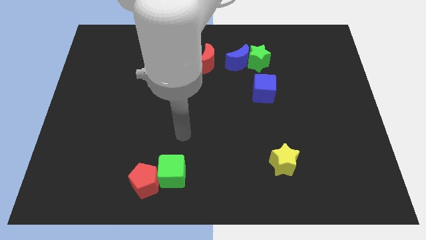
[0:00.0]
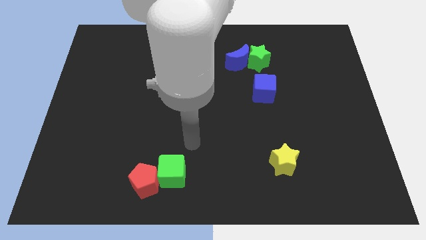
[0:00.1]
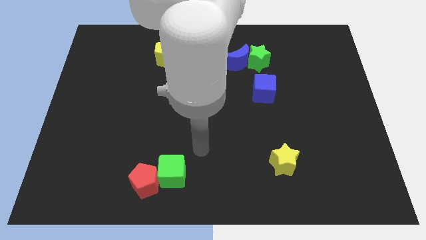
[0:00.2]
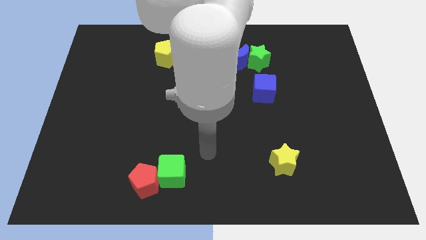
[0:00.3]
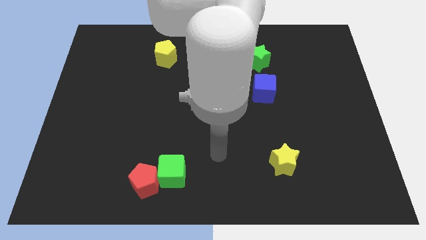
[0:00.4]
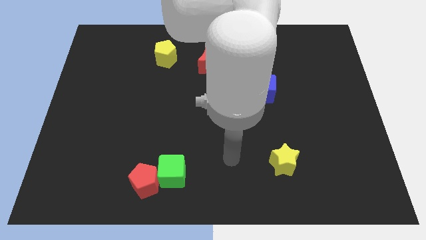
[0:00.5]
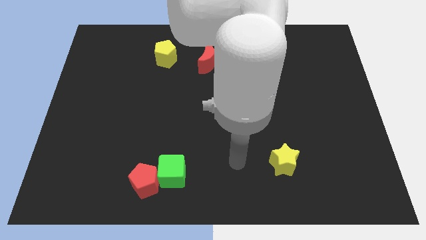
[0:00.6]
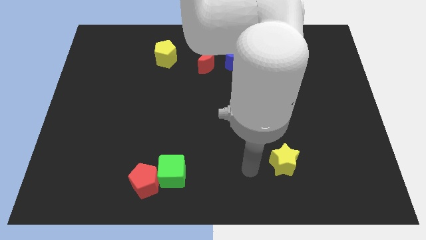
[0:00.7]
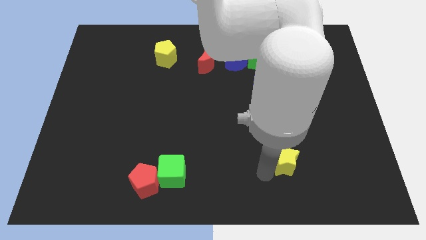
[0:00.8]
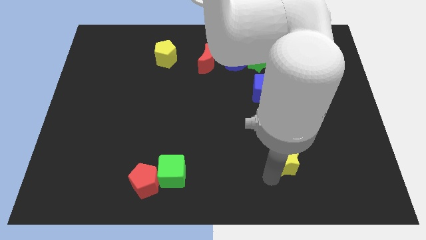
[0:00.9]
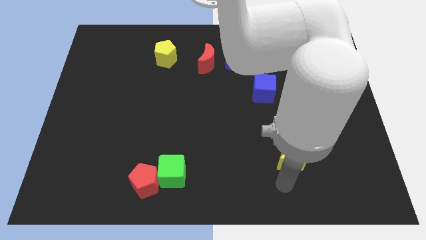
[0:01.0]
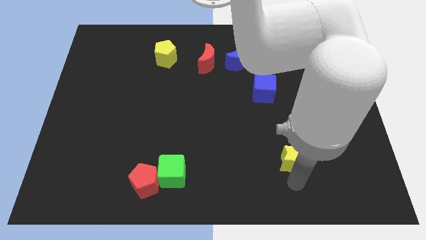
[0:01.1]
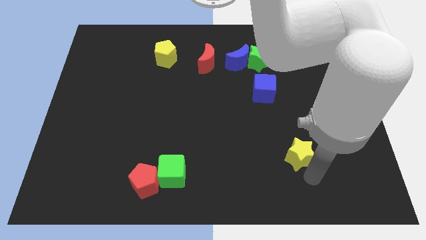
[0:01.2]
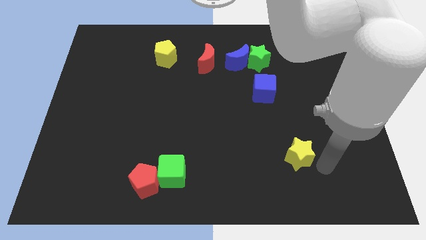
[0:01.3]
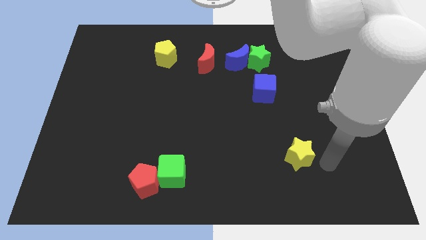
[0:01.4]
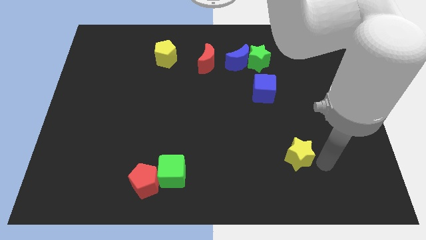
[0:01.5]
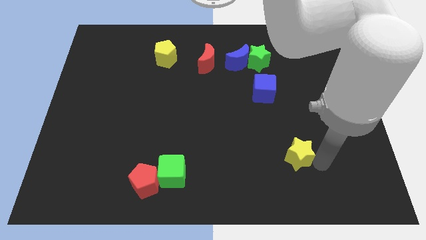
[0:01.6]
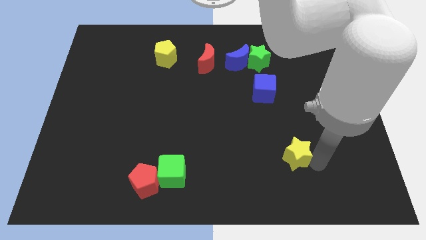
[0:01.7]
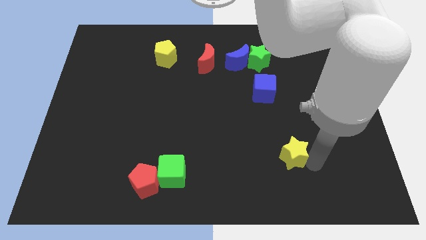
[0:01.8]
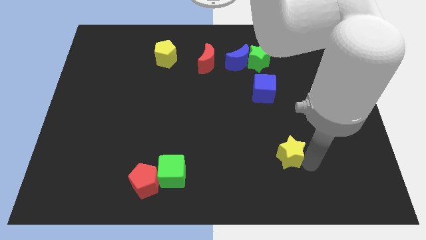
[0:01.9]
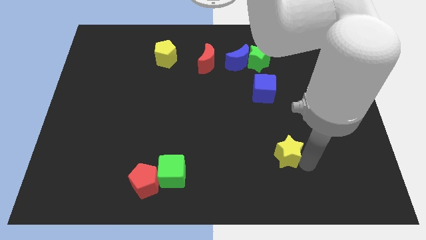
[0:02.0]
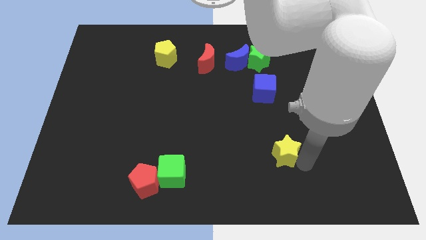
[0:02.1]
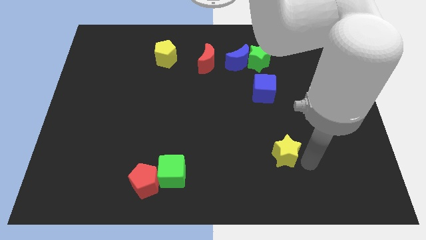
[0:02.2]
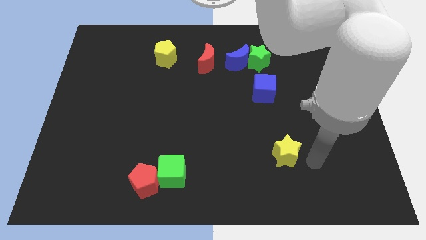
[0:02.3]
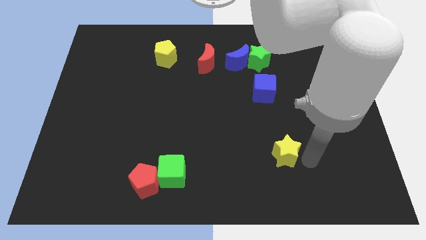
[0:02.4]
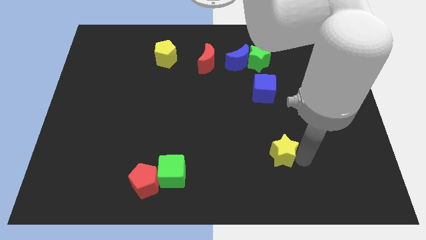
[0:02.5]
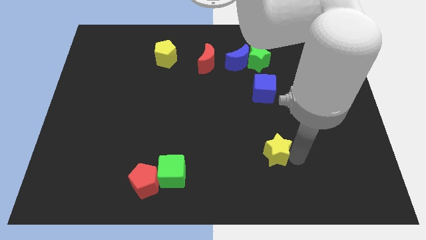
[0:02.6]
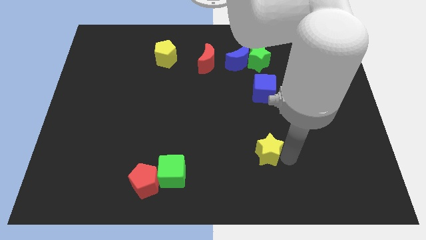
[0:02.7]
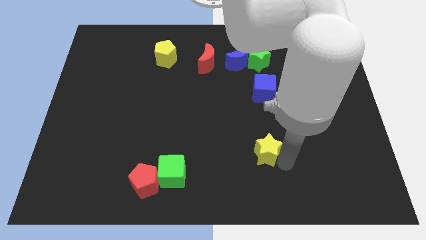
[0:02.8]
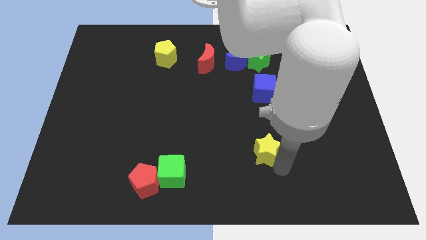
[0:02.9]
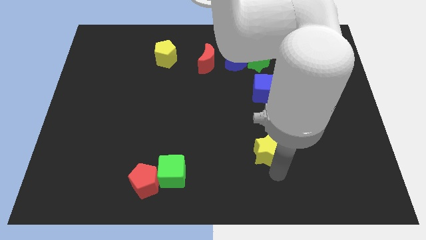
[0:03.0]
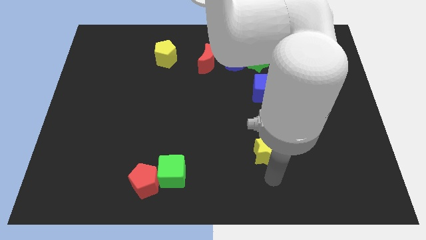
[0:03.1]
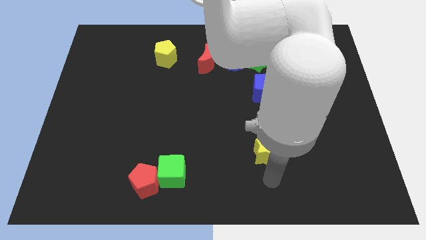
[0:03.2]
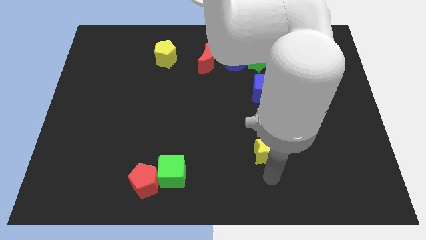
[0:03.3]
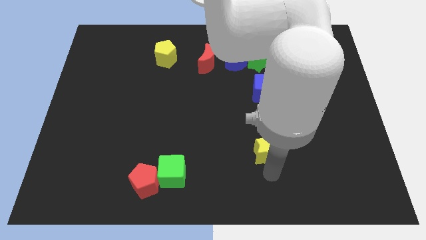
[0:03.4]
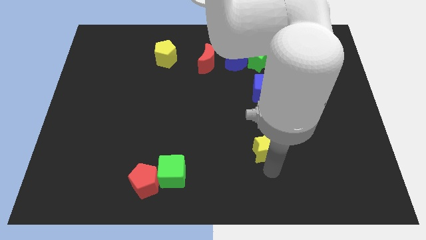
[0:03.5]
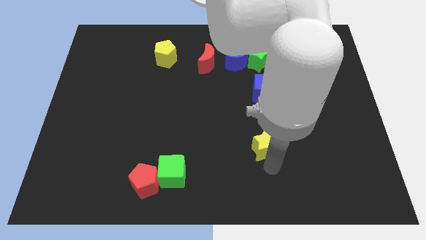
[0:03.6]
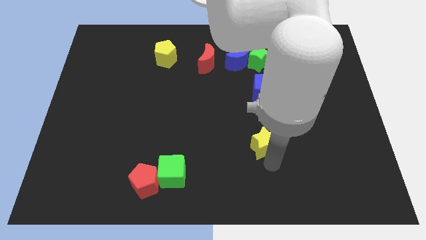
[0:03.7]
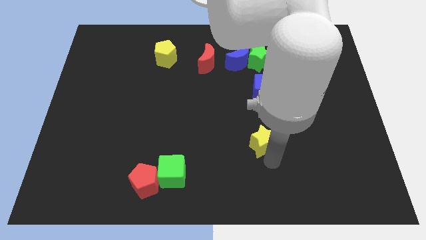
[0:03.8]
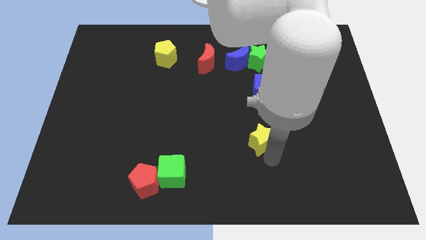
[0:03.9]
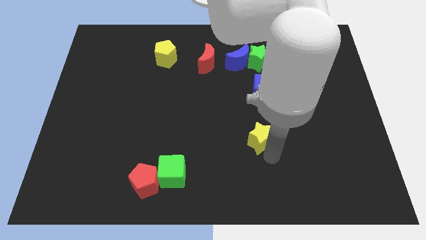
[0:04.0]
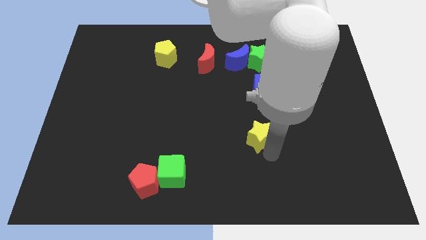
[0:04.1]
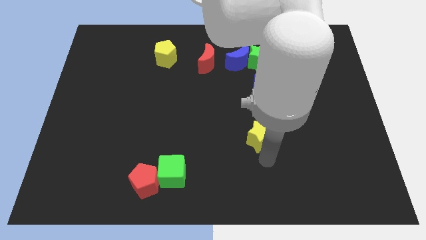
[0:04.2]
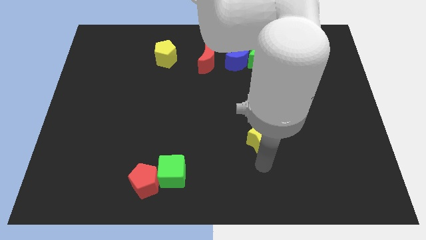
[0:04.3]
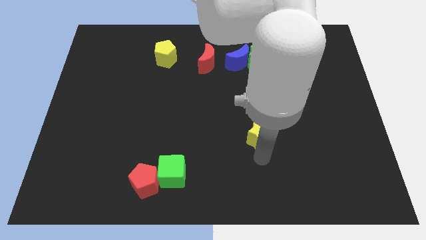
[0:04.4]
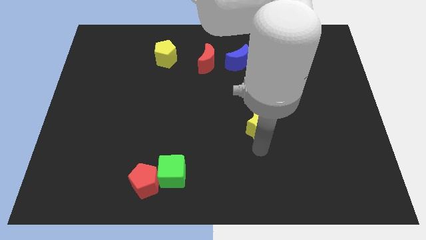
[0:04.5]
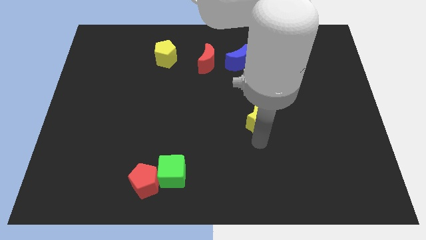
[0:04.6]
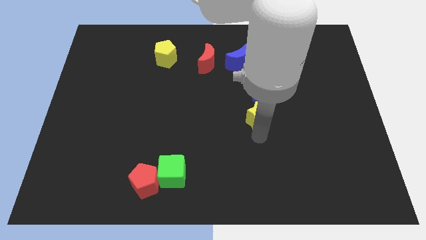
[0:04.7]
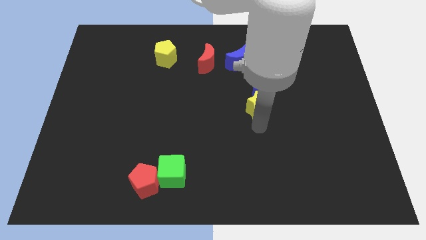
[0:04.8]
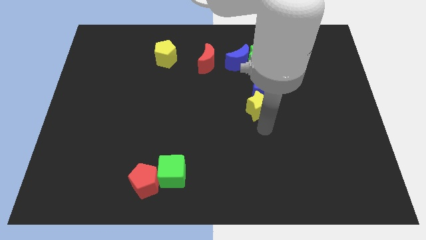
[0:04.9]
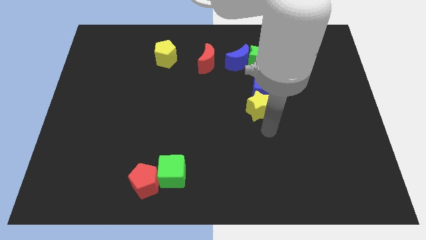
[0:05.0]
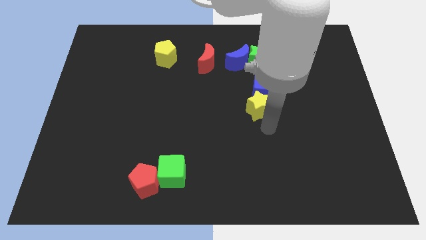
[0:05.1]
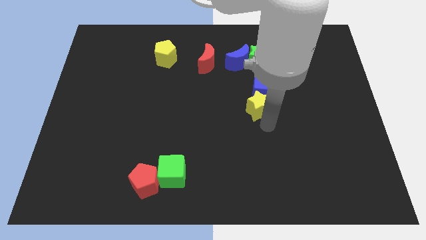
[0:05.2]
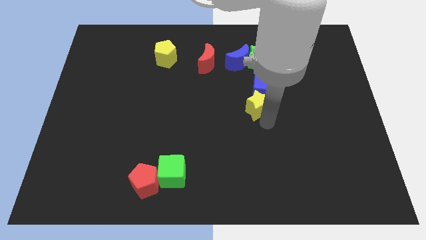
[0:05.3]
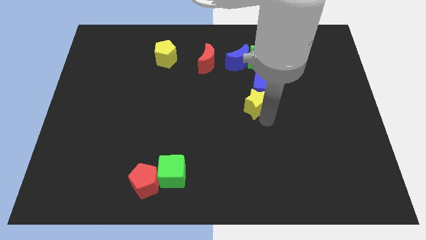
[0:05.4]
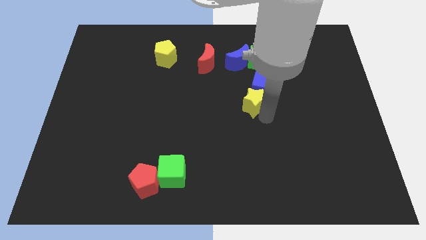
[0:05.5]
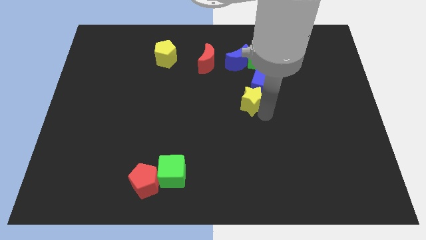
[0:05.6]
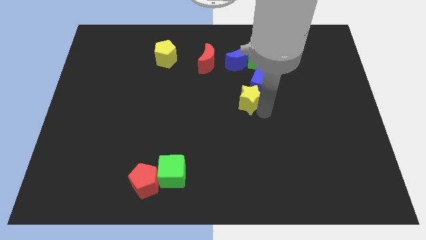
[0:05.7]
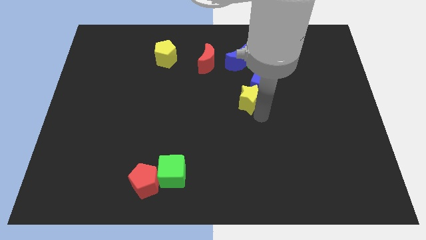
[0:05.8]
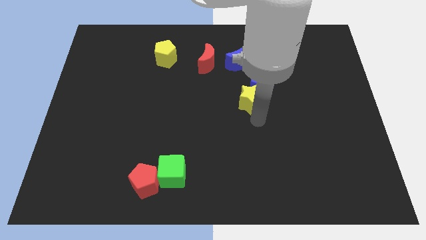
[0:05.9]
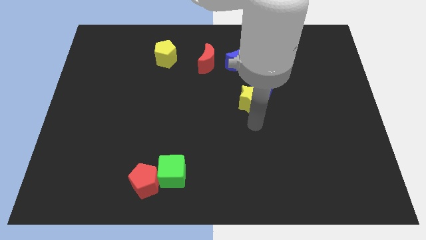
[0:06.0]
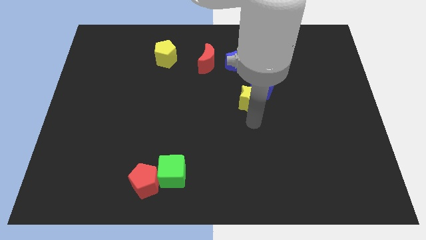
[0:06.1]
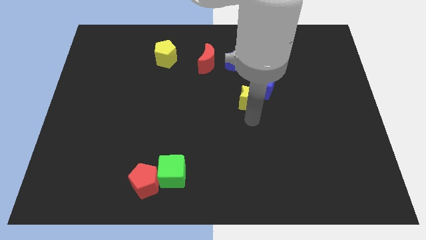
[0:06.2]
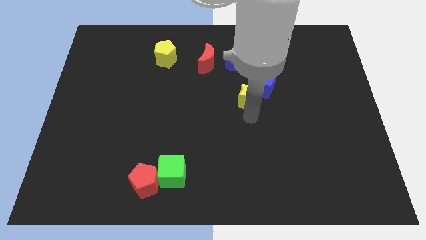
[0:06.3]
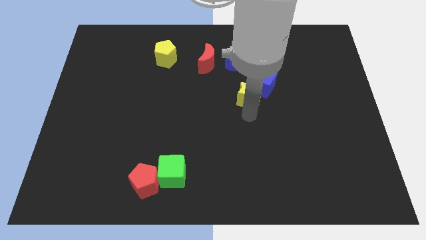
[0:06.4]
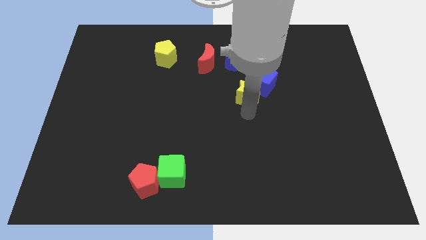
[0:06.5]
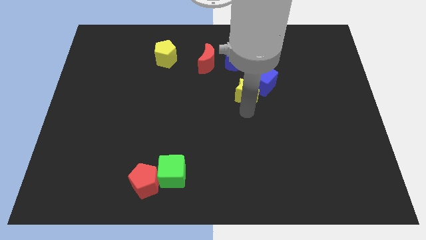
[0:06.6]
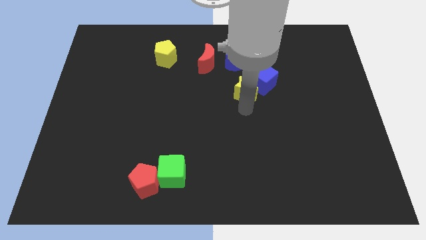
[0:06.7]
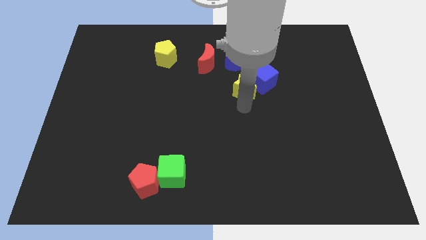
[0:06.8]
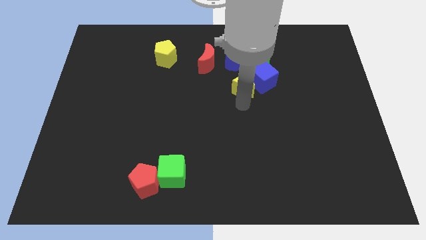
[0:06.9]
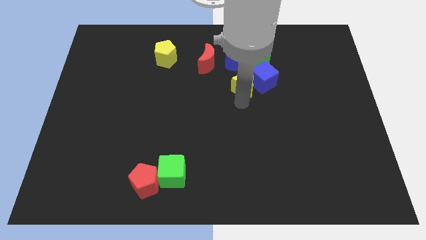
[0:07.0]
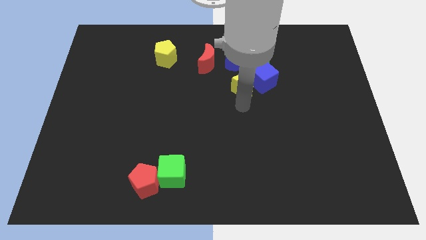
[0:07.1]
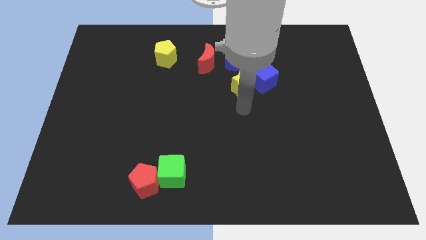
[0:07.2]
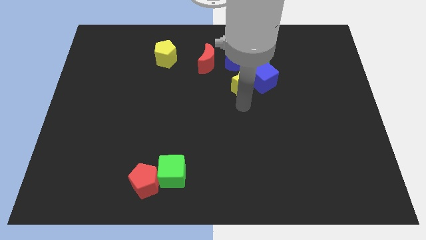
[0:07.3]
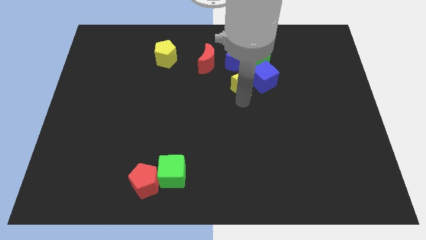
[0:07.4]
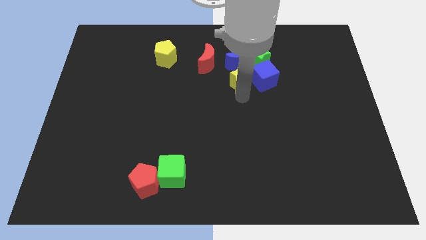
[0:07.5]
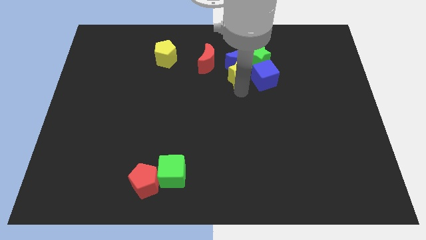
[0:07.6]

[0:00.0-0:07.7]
put the yellow star to the blue moon
